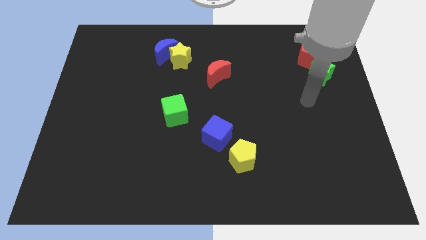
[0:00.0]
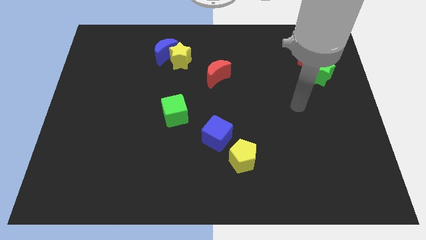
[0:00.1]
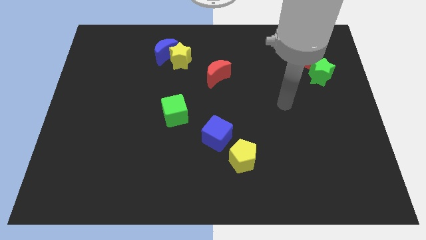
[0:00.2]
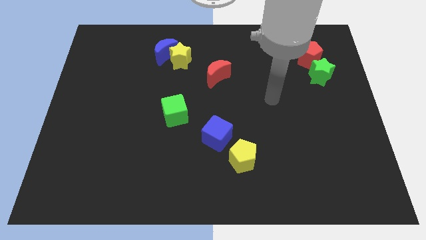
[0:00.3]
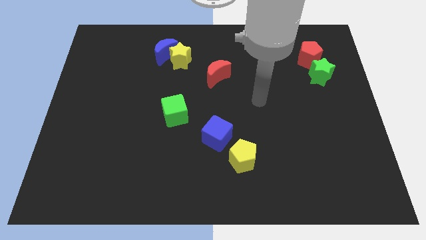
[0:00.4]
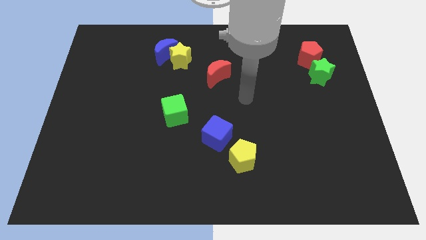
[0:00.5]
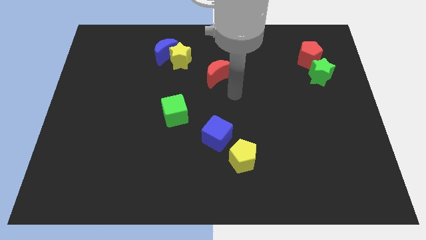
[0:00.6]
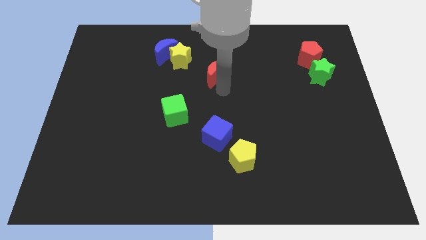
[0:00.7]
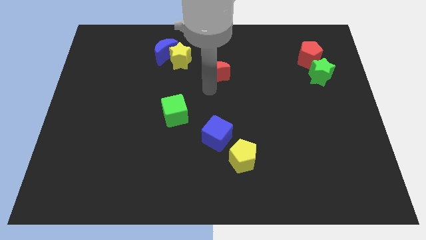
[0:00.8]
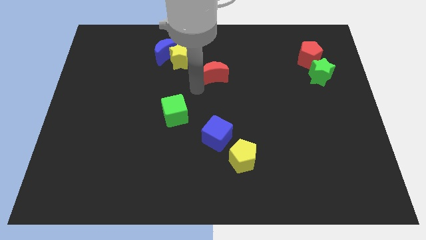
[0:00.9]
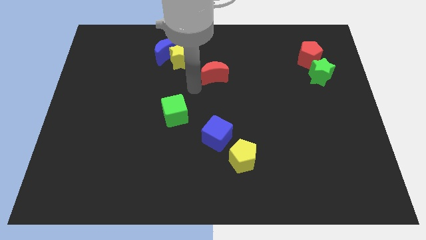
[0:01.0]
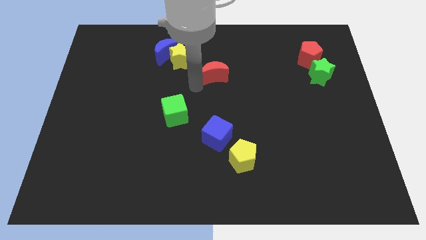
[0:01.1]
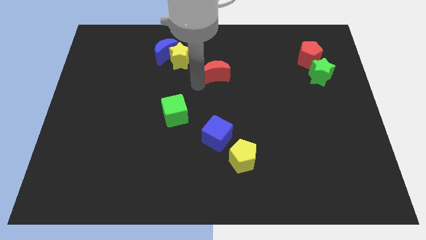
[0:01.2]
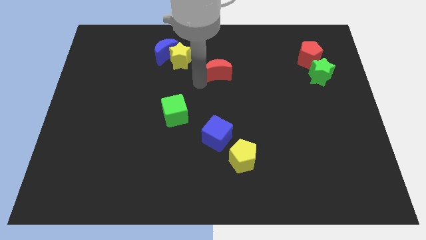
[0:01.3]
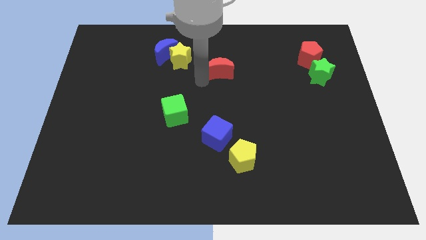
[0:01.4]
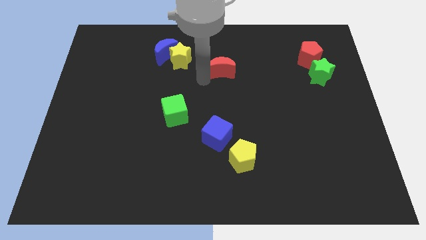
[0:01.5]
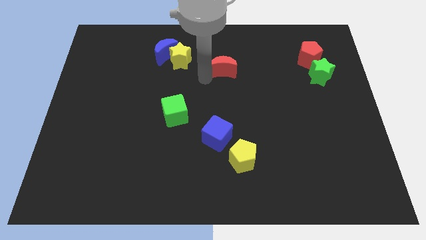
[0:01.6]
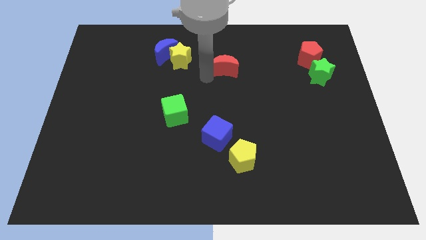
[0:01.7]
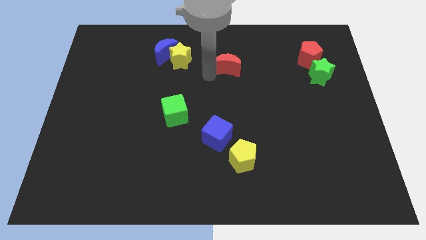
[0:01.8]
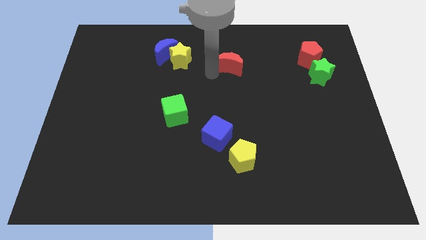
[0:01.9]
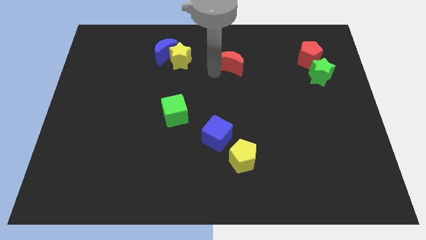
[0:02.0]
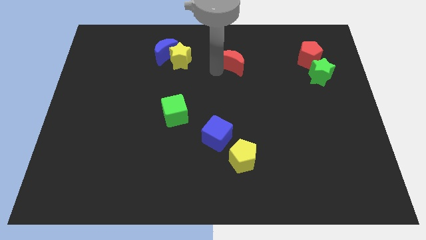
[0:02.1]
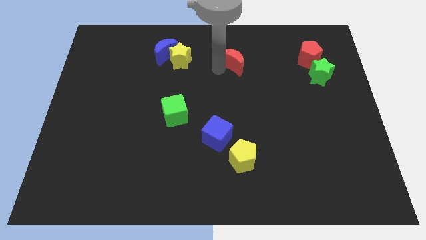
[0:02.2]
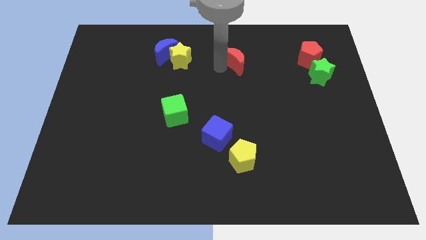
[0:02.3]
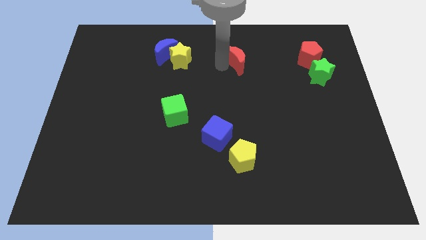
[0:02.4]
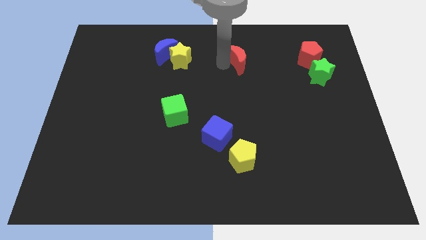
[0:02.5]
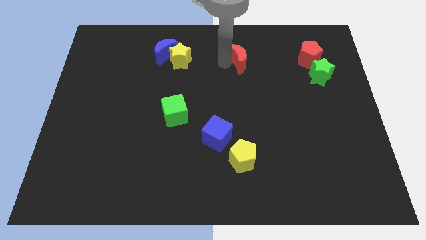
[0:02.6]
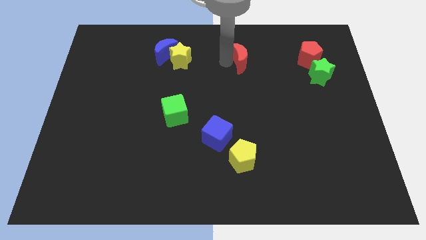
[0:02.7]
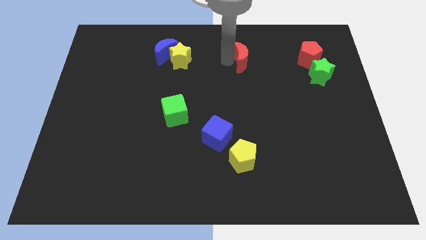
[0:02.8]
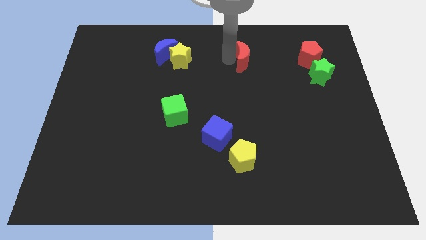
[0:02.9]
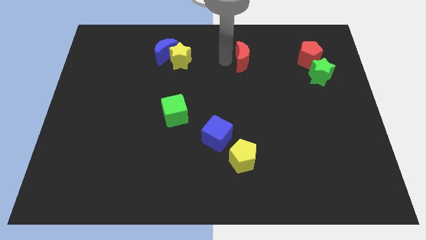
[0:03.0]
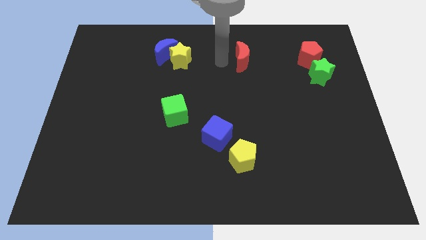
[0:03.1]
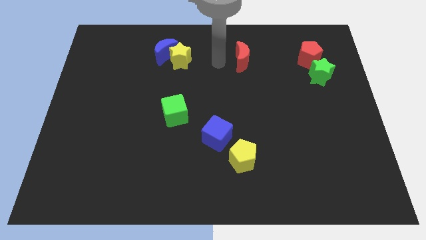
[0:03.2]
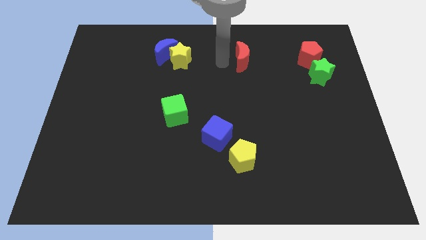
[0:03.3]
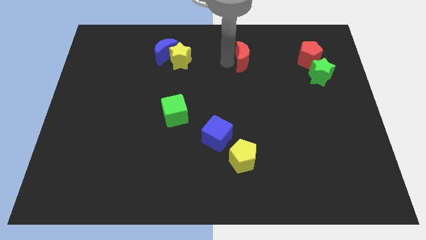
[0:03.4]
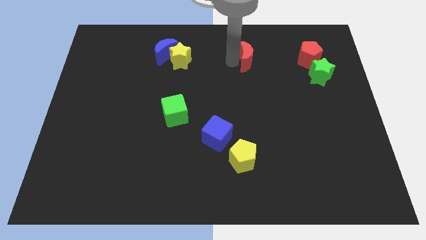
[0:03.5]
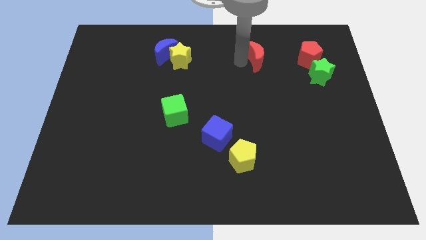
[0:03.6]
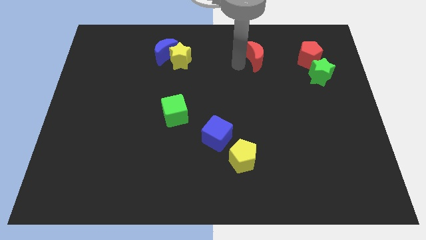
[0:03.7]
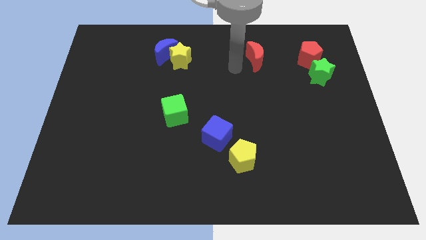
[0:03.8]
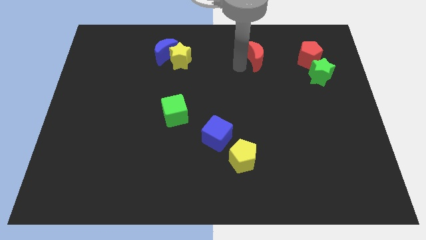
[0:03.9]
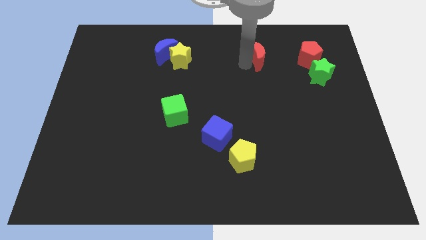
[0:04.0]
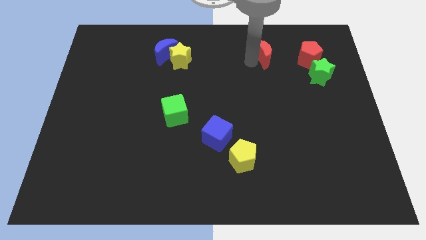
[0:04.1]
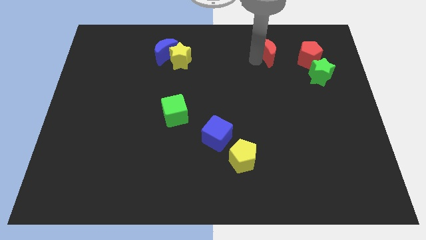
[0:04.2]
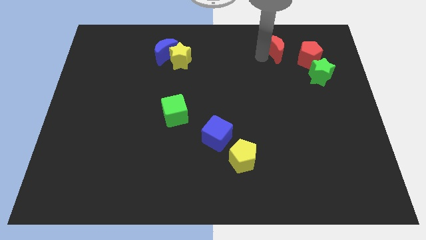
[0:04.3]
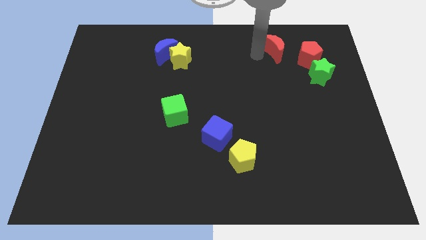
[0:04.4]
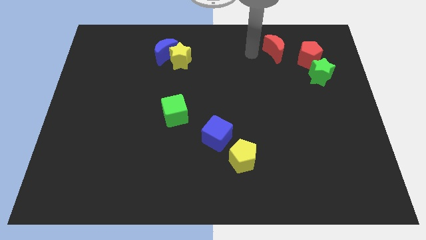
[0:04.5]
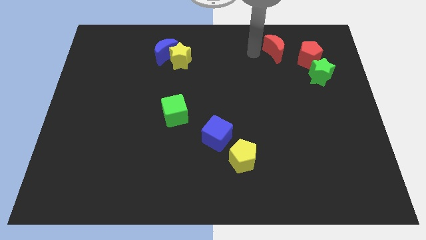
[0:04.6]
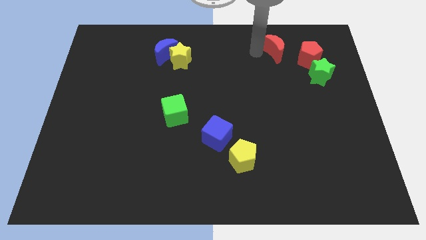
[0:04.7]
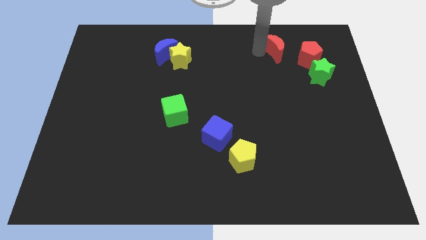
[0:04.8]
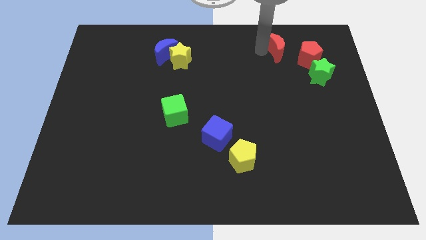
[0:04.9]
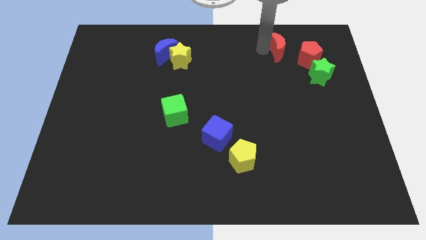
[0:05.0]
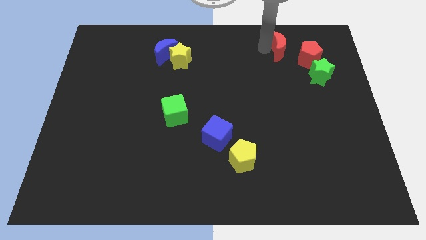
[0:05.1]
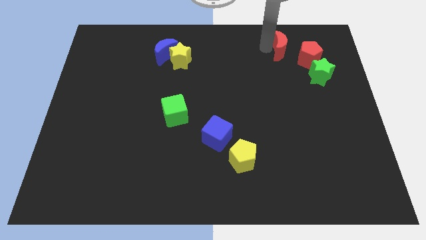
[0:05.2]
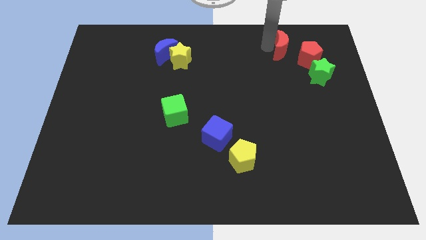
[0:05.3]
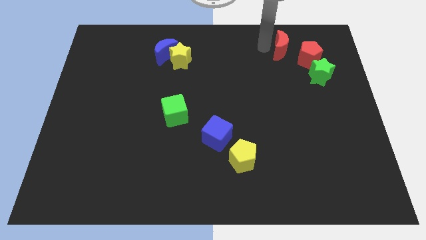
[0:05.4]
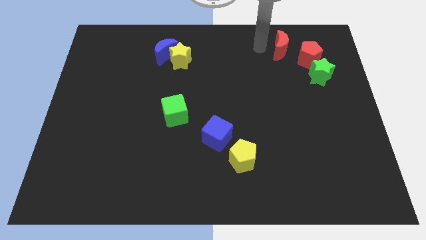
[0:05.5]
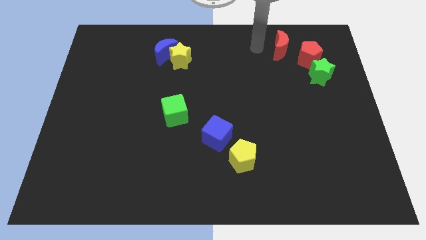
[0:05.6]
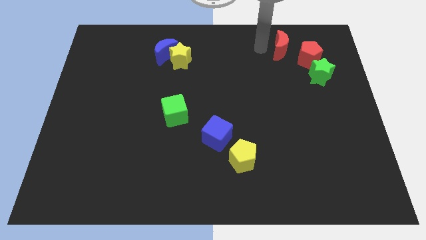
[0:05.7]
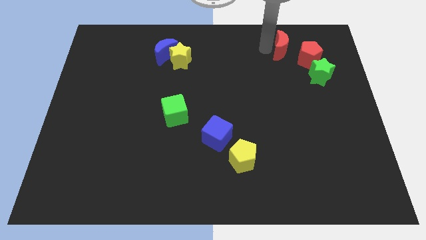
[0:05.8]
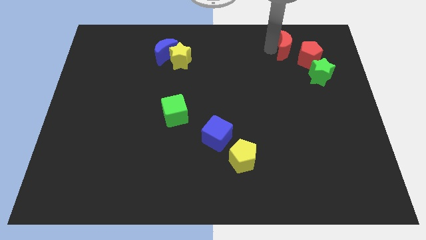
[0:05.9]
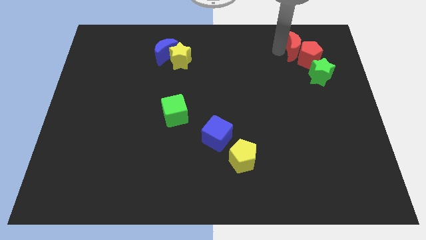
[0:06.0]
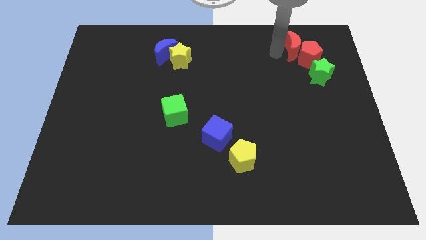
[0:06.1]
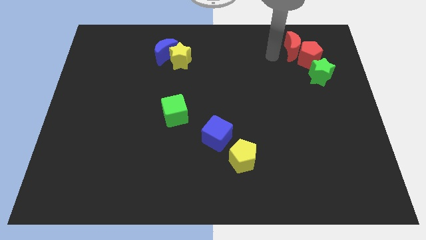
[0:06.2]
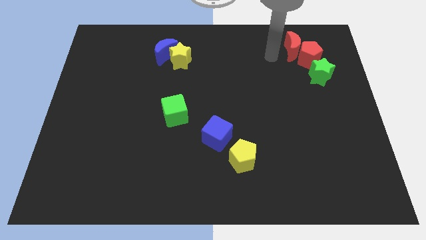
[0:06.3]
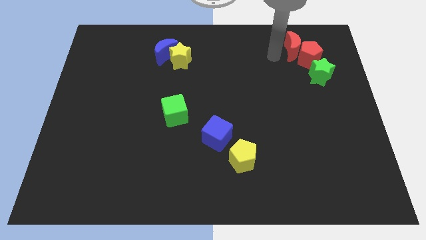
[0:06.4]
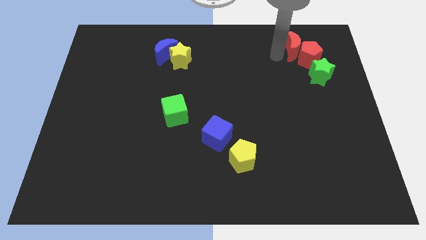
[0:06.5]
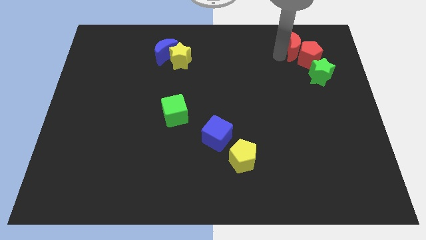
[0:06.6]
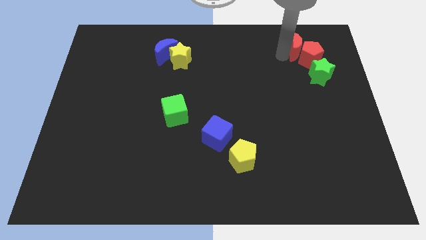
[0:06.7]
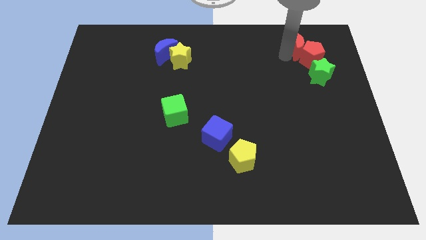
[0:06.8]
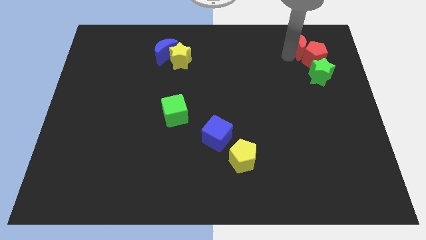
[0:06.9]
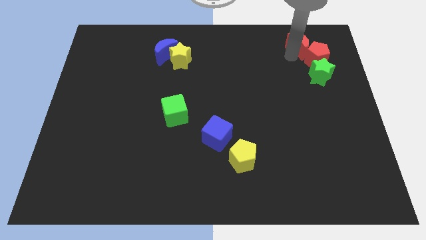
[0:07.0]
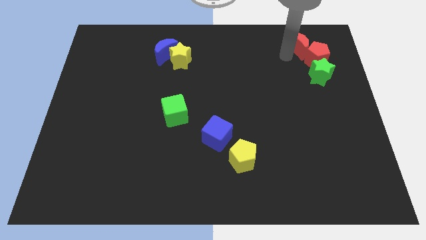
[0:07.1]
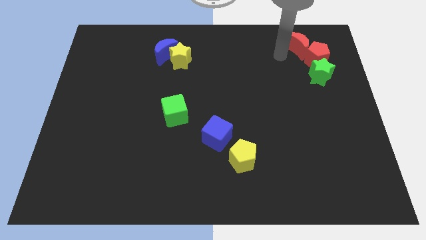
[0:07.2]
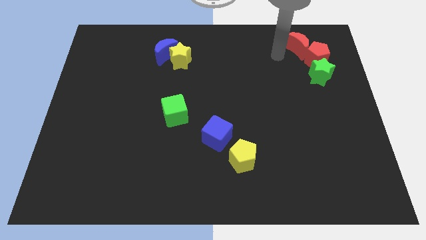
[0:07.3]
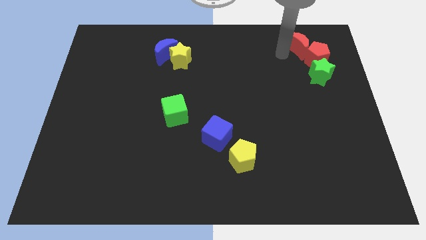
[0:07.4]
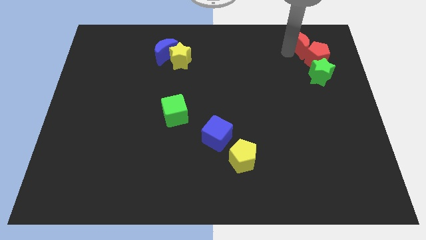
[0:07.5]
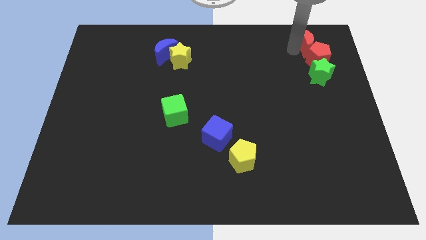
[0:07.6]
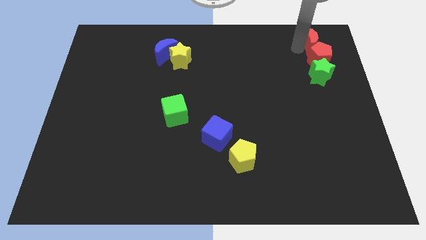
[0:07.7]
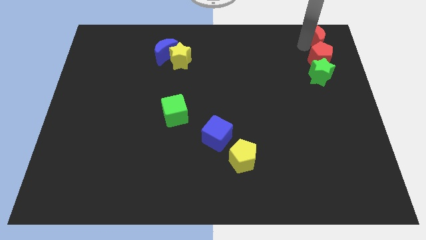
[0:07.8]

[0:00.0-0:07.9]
put the red moon to the top right
